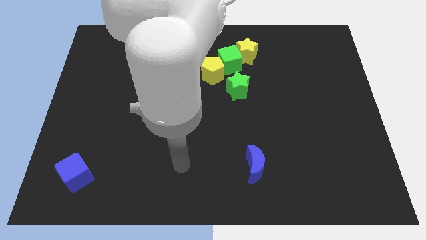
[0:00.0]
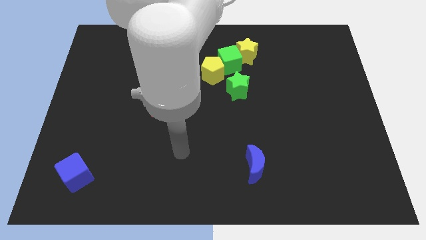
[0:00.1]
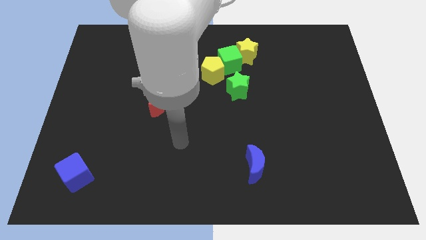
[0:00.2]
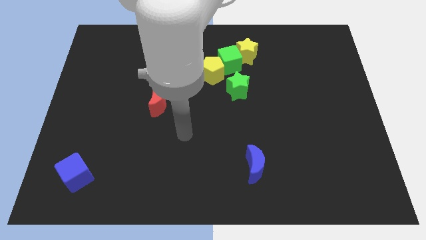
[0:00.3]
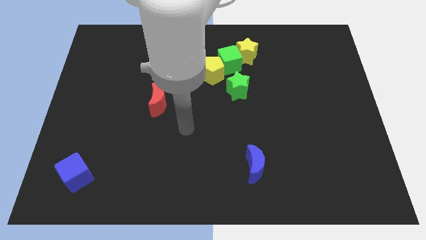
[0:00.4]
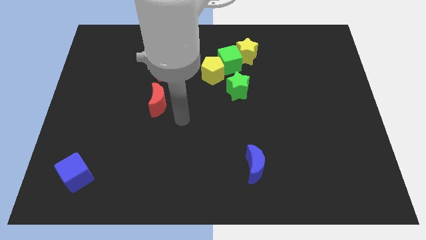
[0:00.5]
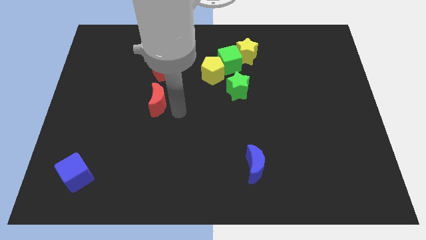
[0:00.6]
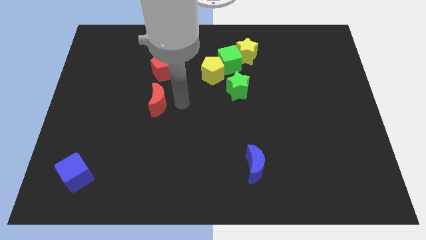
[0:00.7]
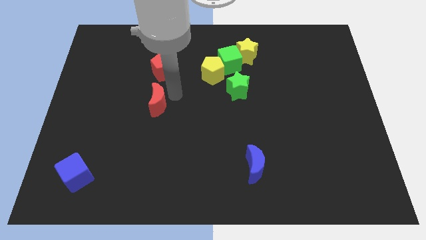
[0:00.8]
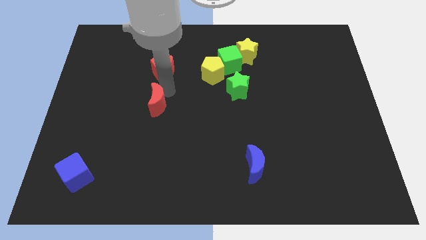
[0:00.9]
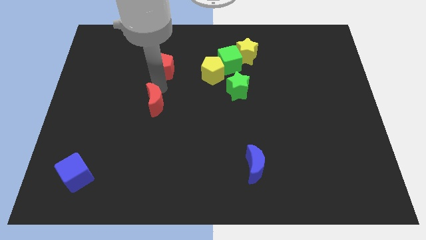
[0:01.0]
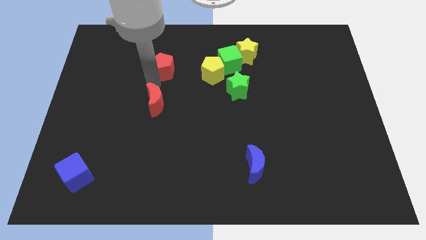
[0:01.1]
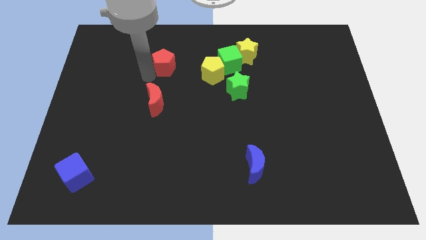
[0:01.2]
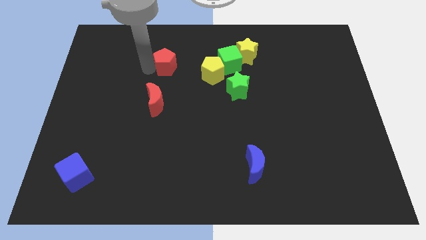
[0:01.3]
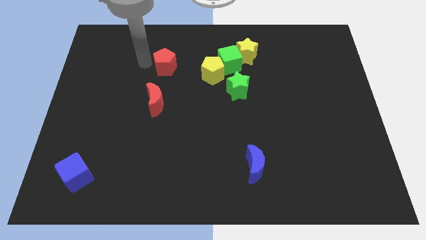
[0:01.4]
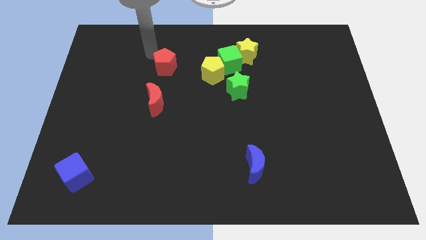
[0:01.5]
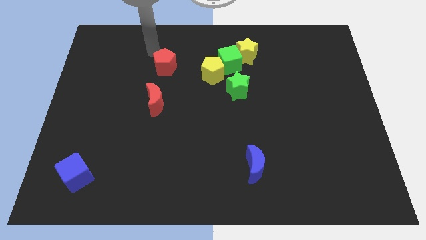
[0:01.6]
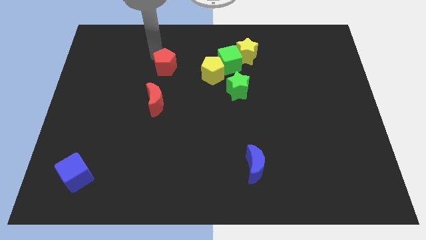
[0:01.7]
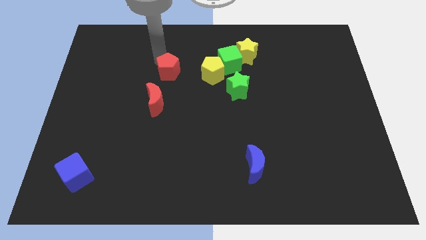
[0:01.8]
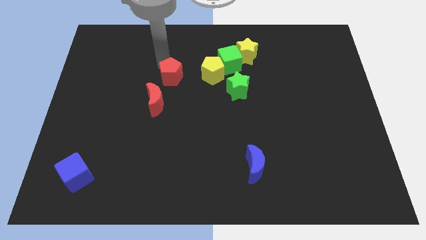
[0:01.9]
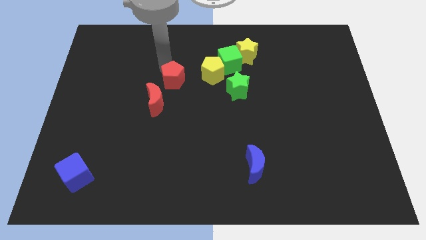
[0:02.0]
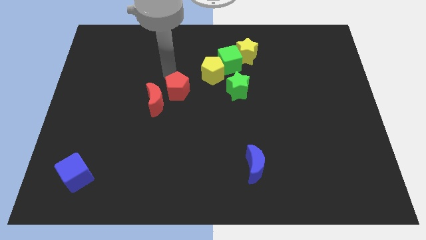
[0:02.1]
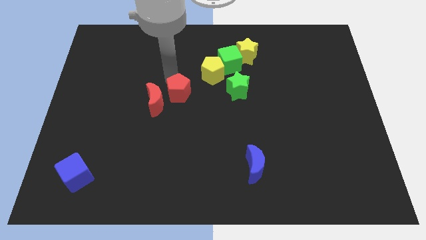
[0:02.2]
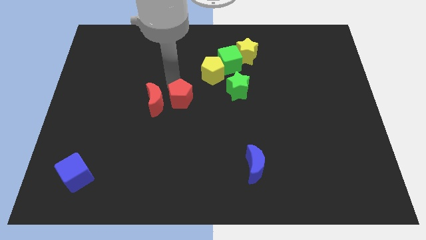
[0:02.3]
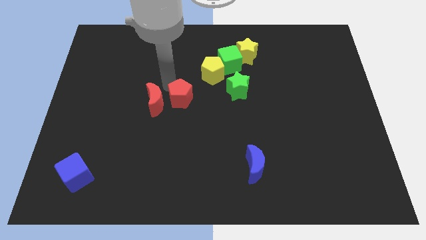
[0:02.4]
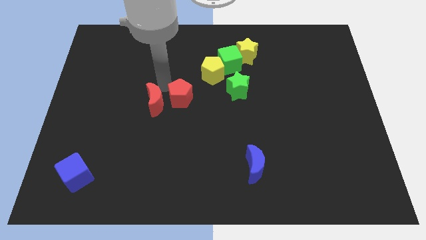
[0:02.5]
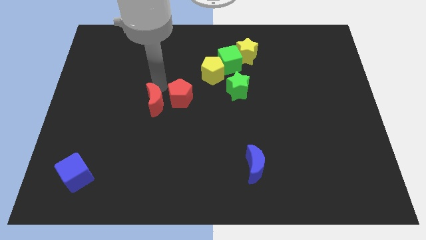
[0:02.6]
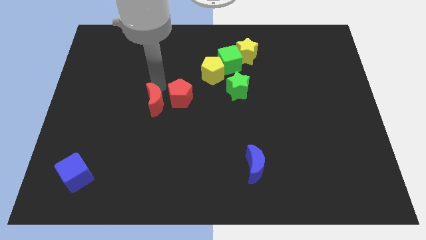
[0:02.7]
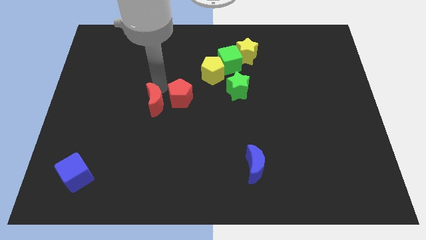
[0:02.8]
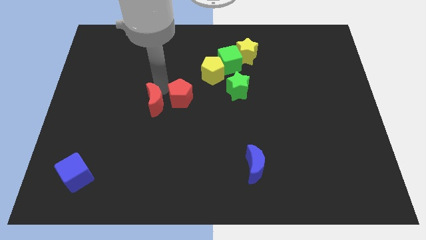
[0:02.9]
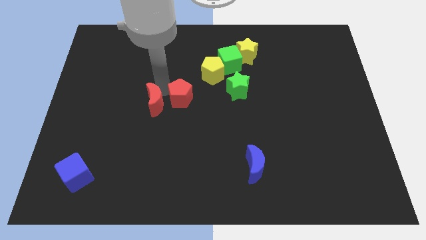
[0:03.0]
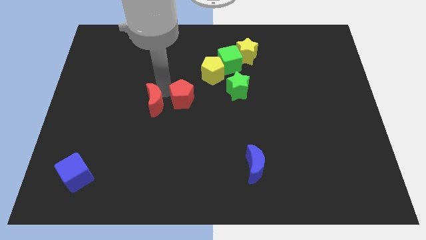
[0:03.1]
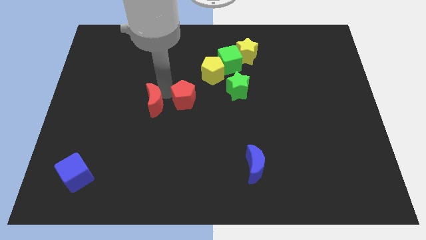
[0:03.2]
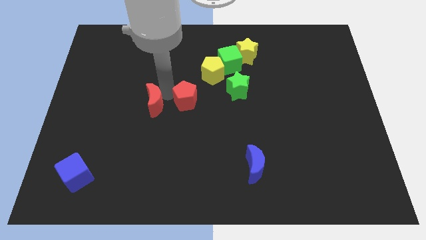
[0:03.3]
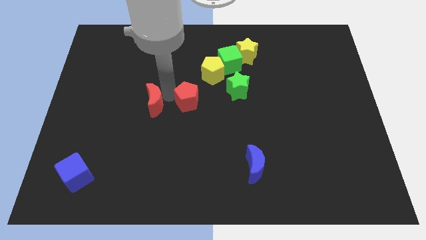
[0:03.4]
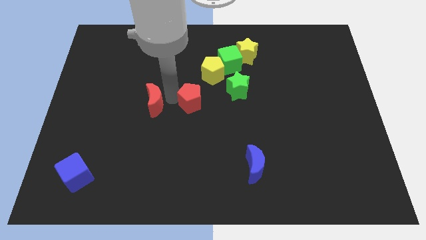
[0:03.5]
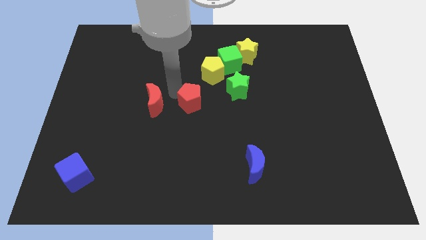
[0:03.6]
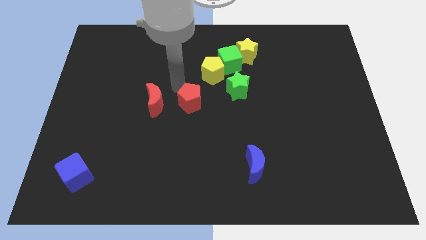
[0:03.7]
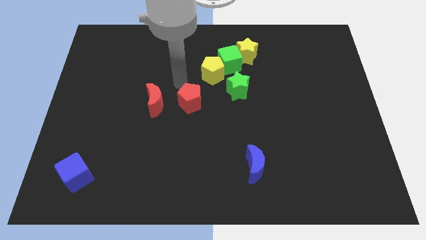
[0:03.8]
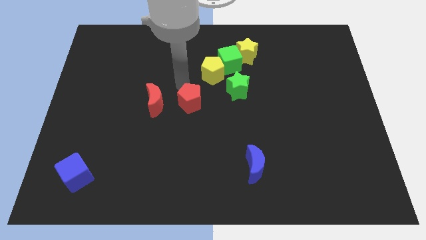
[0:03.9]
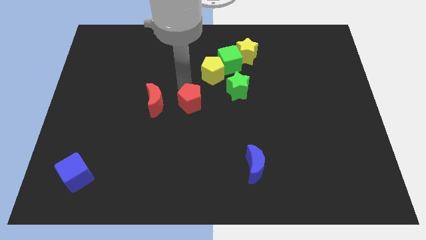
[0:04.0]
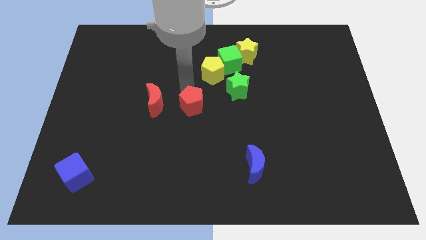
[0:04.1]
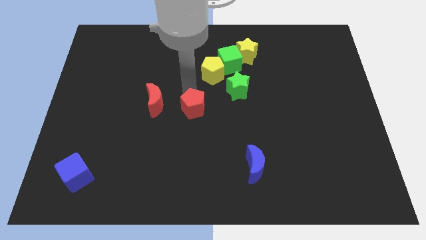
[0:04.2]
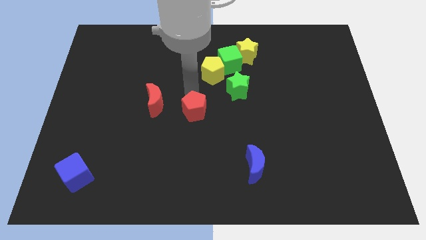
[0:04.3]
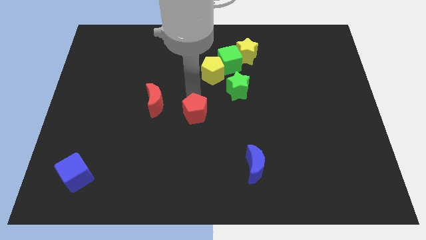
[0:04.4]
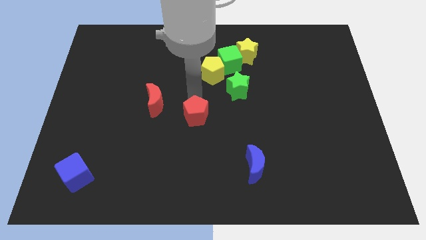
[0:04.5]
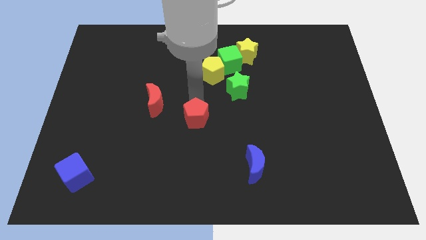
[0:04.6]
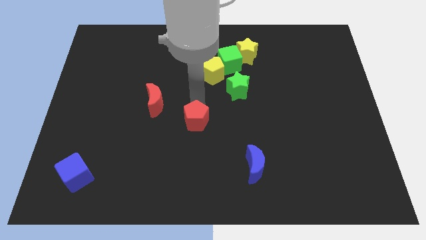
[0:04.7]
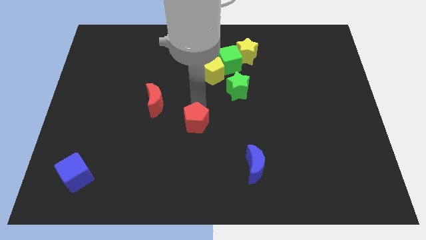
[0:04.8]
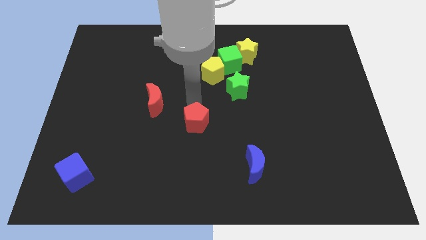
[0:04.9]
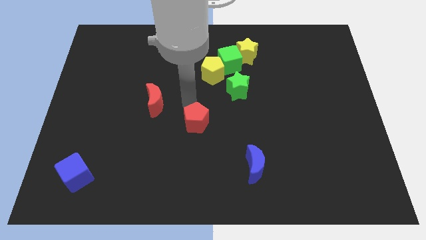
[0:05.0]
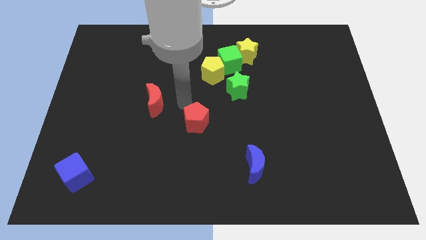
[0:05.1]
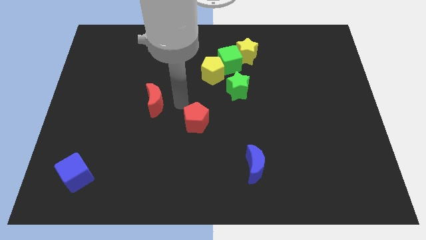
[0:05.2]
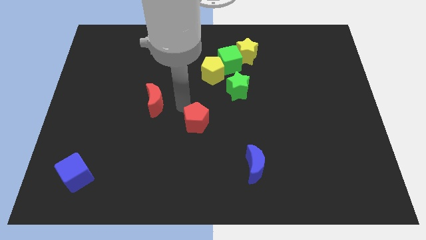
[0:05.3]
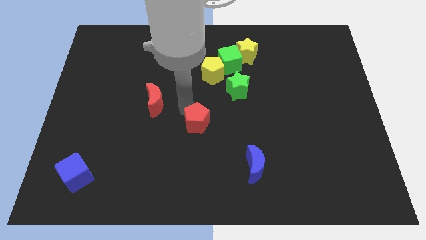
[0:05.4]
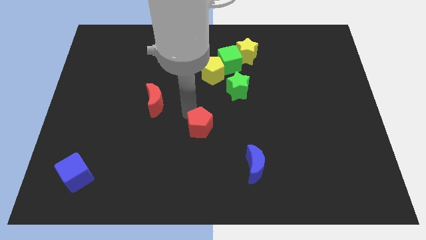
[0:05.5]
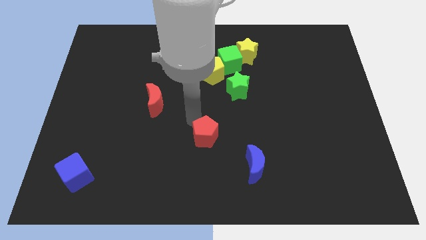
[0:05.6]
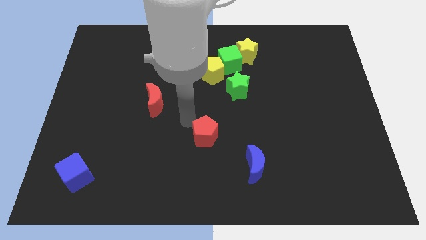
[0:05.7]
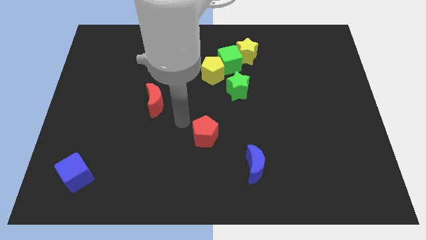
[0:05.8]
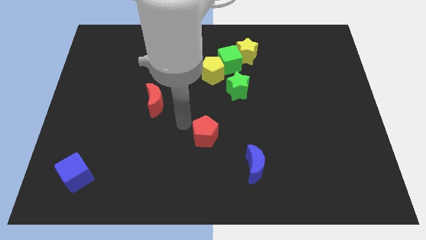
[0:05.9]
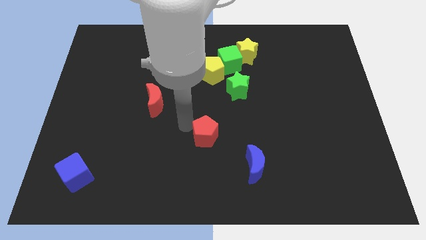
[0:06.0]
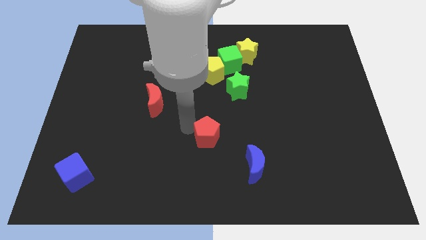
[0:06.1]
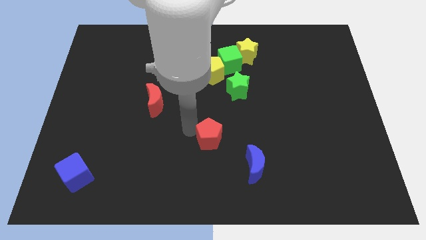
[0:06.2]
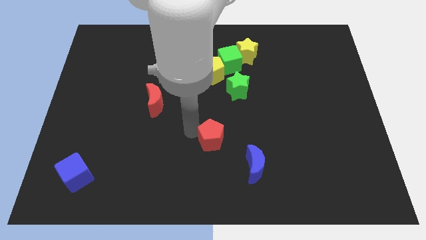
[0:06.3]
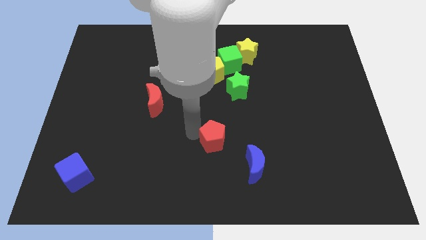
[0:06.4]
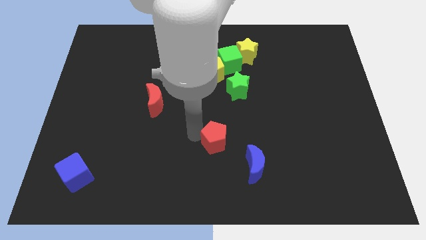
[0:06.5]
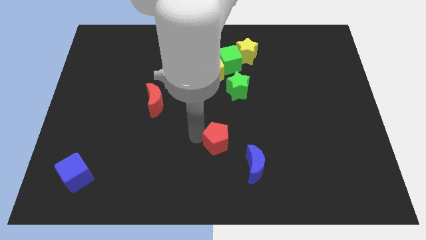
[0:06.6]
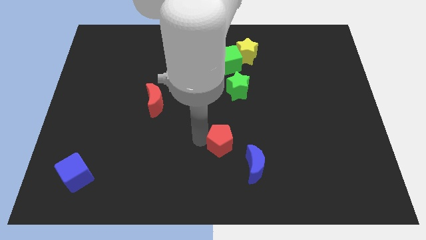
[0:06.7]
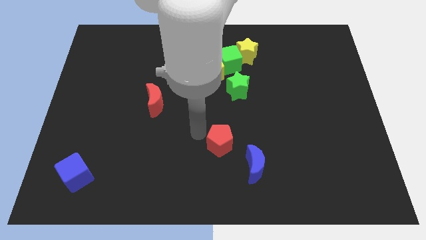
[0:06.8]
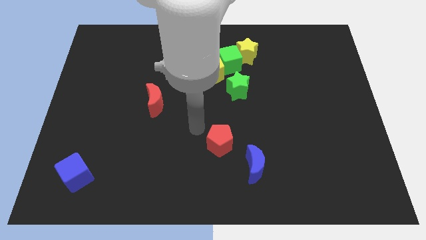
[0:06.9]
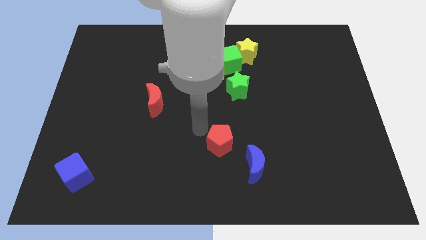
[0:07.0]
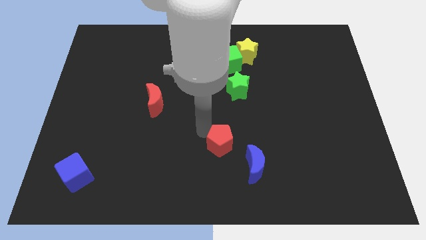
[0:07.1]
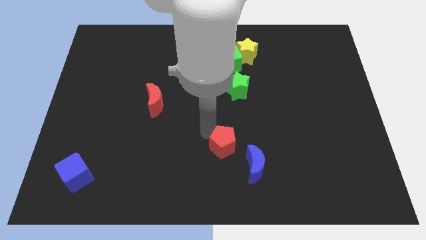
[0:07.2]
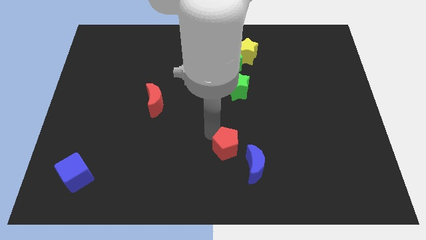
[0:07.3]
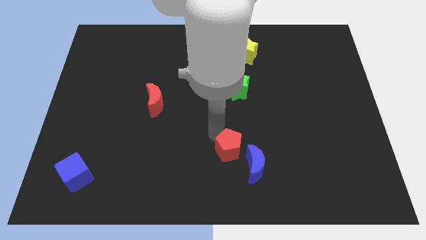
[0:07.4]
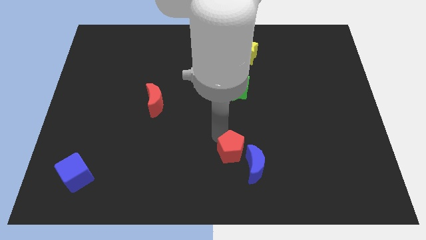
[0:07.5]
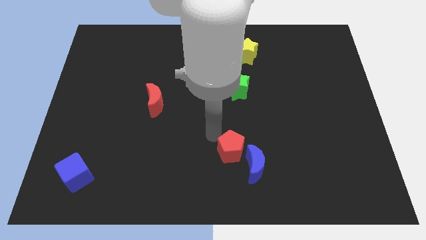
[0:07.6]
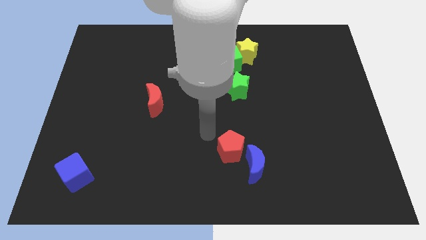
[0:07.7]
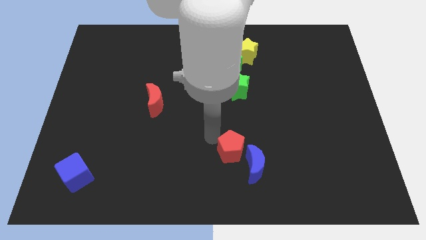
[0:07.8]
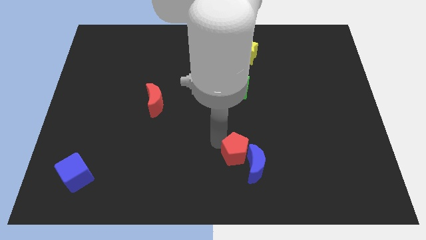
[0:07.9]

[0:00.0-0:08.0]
slide the red pentagon to the blue moon
